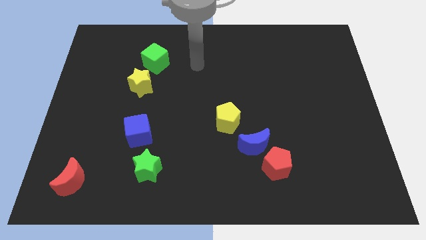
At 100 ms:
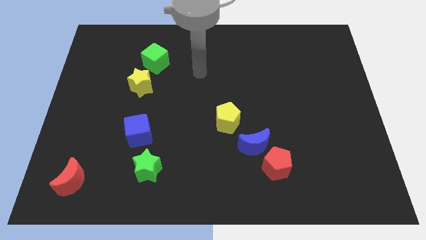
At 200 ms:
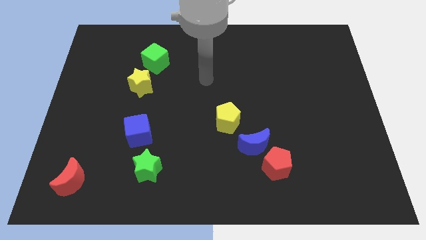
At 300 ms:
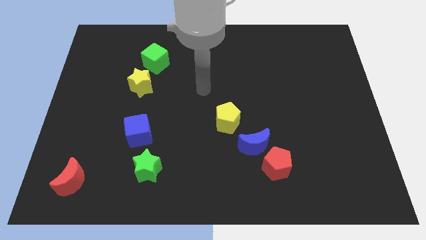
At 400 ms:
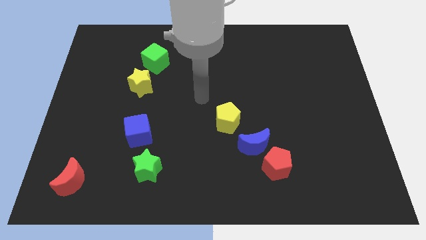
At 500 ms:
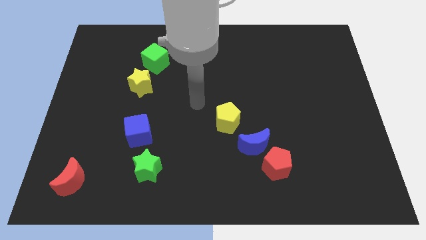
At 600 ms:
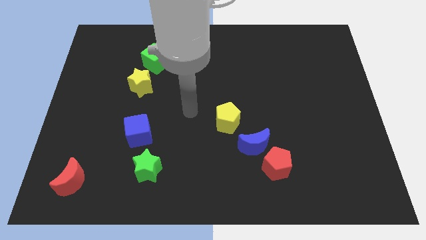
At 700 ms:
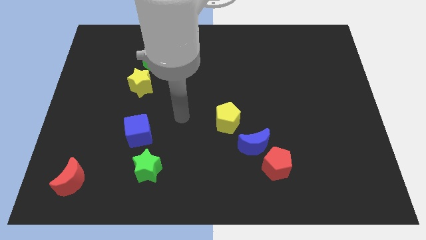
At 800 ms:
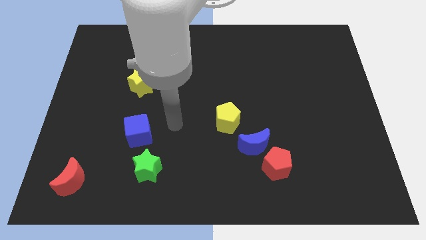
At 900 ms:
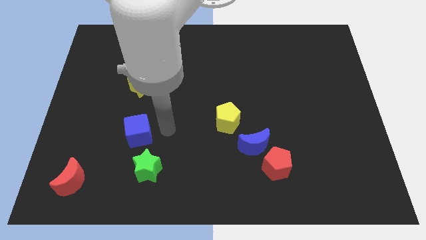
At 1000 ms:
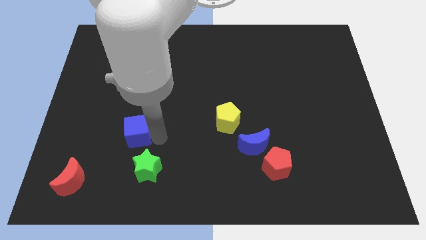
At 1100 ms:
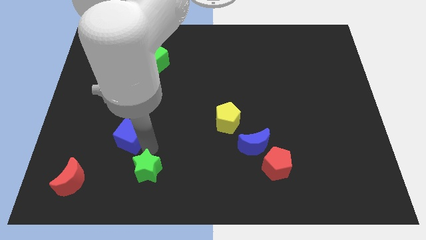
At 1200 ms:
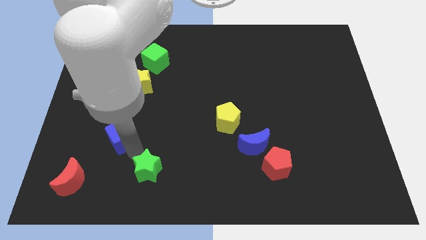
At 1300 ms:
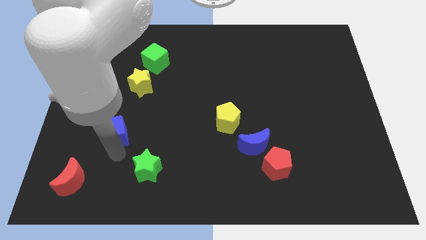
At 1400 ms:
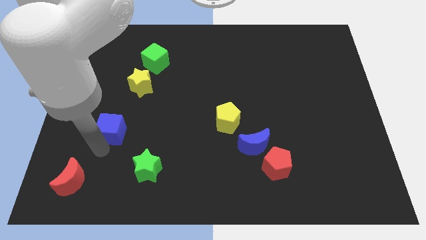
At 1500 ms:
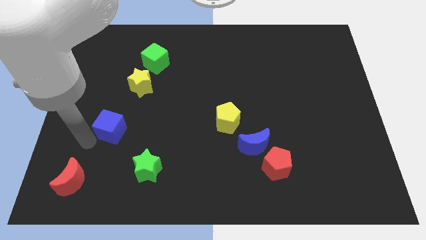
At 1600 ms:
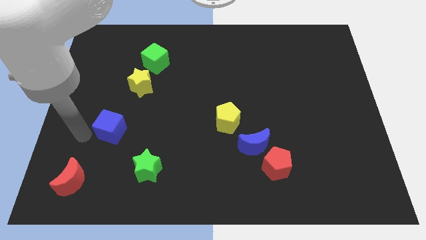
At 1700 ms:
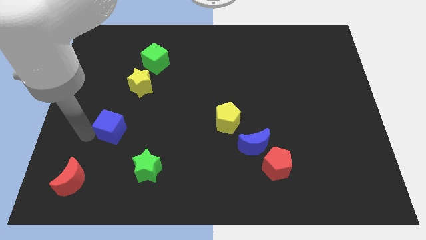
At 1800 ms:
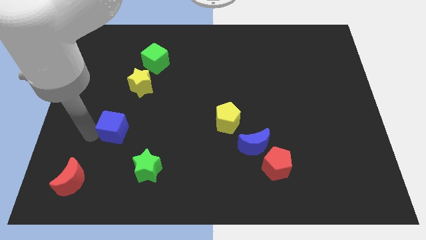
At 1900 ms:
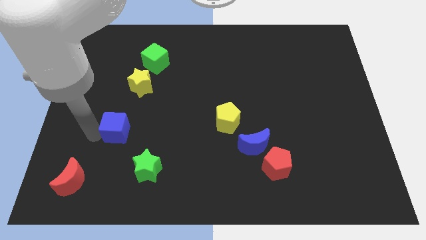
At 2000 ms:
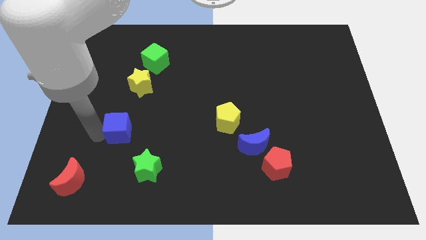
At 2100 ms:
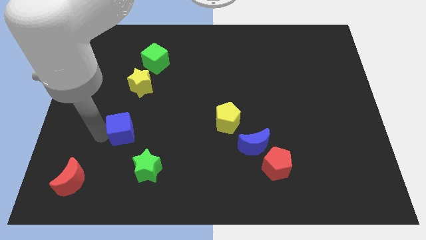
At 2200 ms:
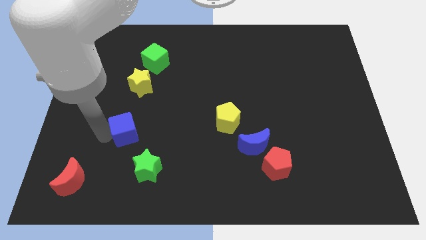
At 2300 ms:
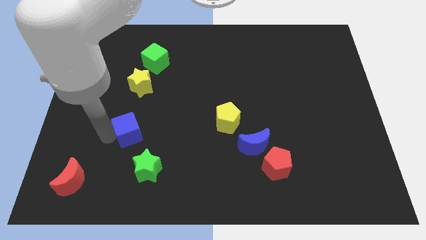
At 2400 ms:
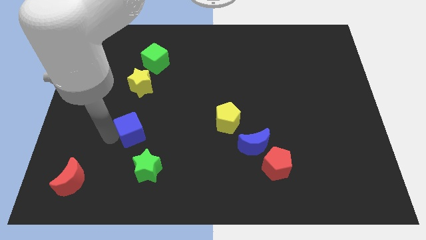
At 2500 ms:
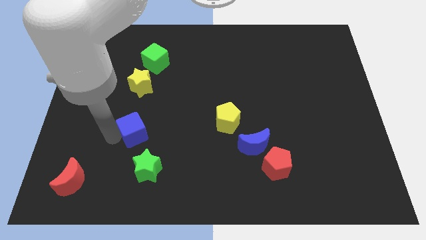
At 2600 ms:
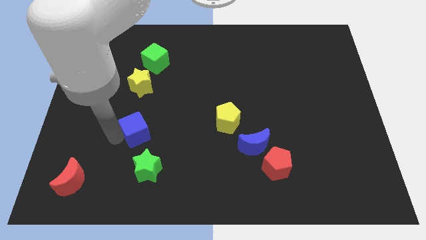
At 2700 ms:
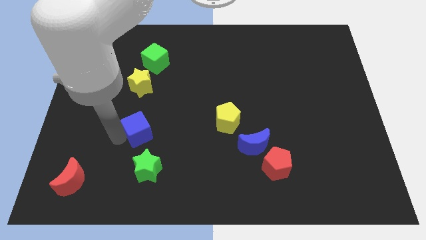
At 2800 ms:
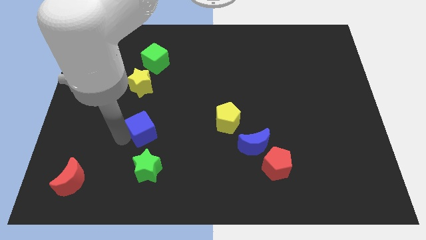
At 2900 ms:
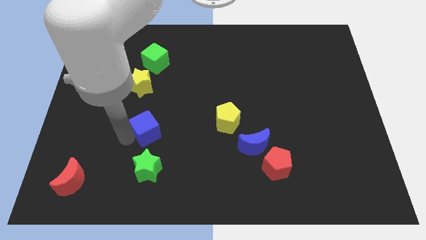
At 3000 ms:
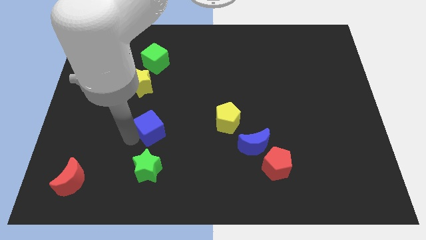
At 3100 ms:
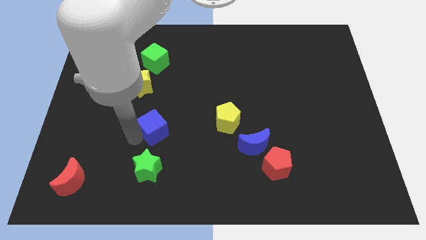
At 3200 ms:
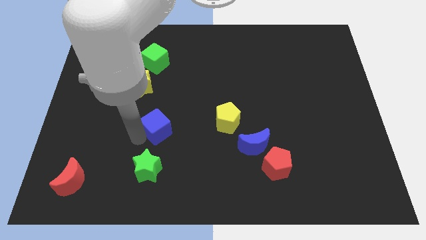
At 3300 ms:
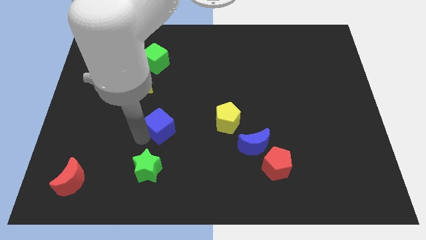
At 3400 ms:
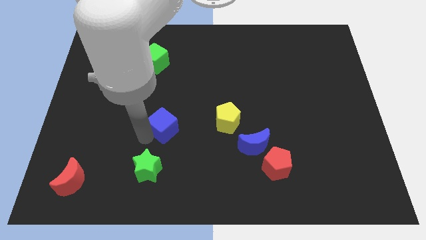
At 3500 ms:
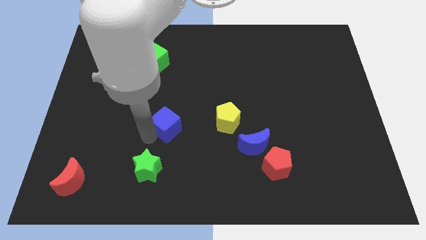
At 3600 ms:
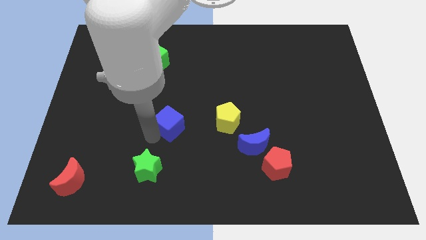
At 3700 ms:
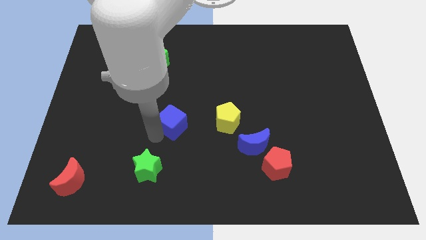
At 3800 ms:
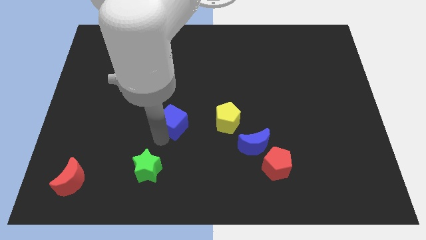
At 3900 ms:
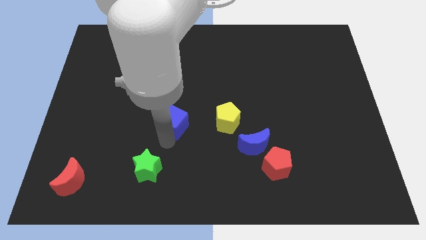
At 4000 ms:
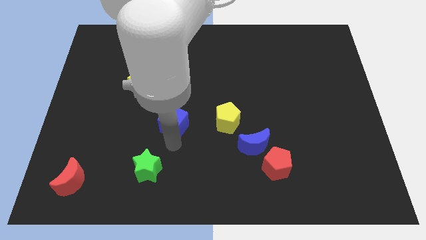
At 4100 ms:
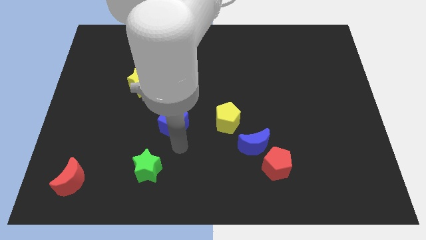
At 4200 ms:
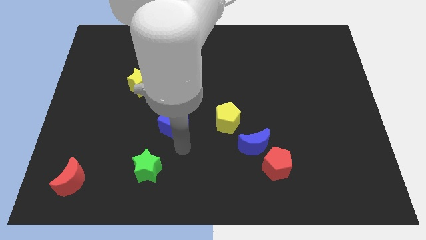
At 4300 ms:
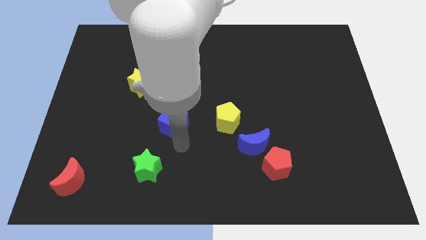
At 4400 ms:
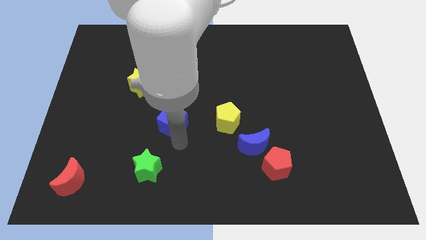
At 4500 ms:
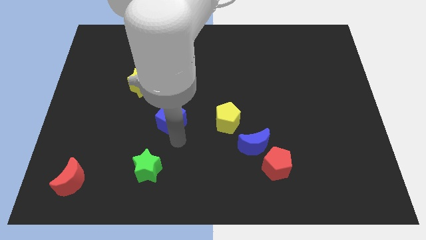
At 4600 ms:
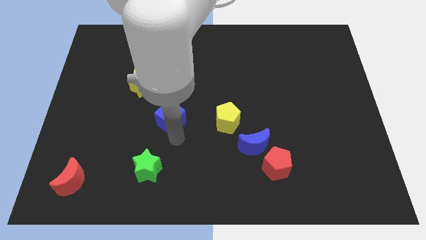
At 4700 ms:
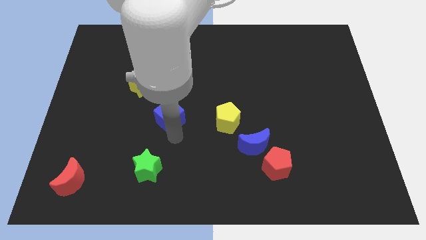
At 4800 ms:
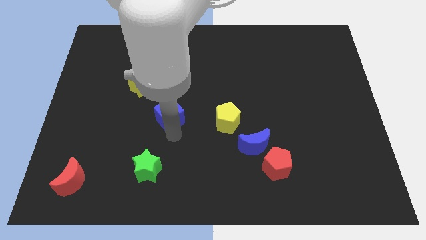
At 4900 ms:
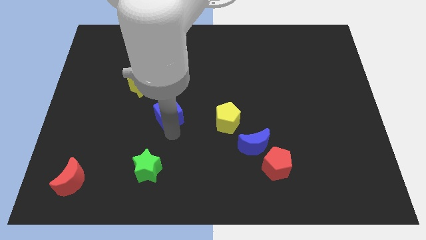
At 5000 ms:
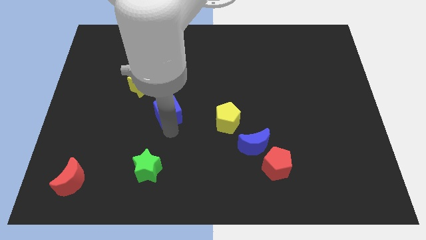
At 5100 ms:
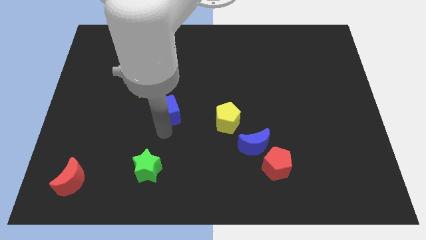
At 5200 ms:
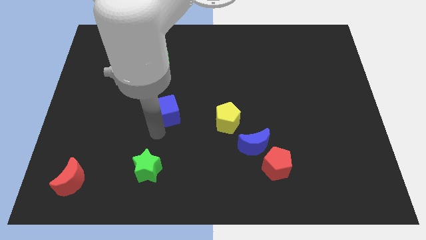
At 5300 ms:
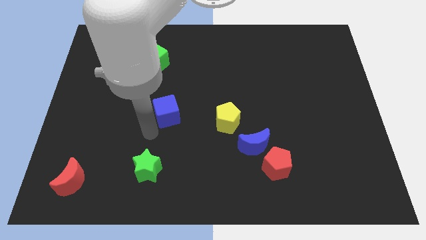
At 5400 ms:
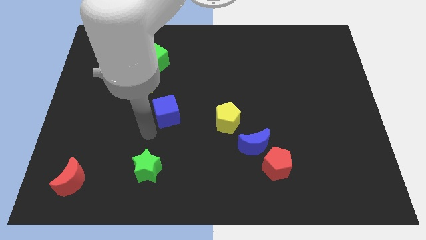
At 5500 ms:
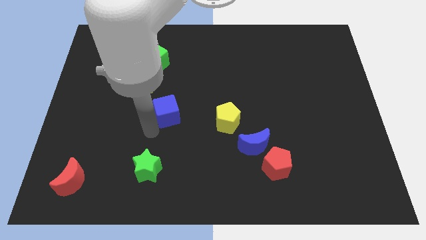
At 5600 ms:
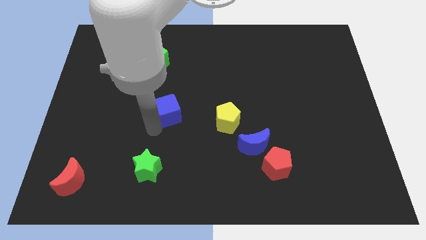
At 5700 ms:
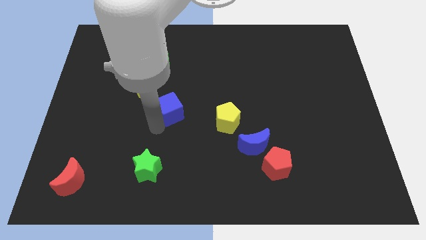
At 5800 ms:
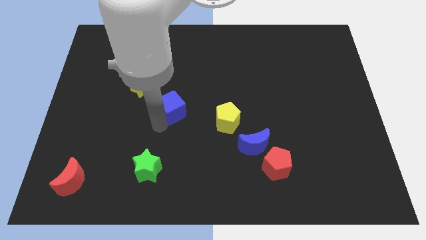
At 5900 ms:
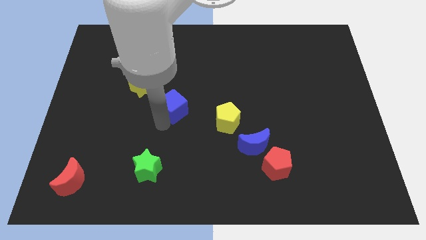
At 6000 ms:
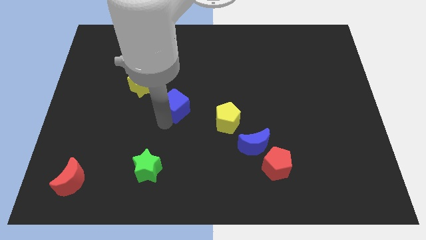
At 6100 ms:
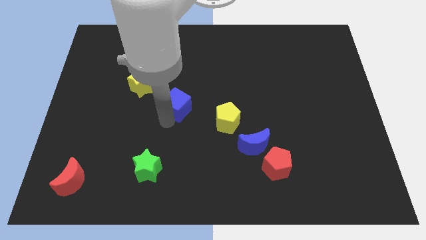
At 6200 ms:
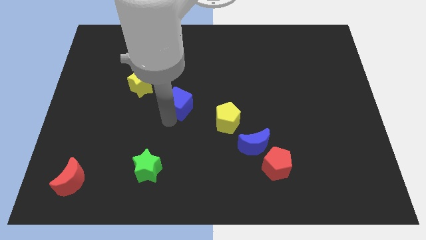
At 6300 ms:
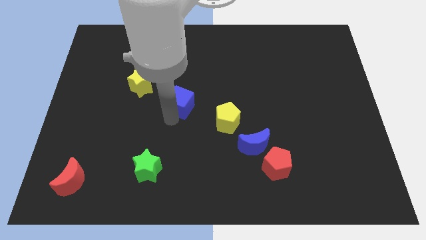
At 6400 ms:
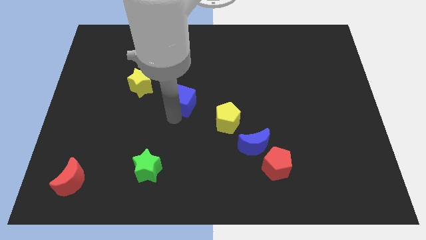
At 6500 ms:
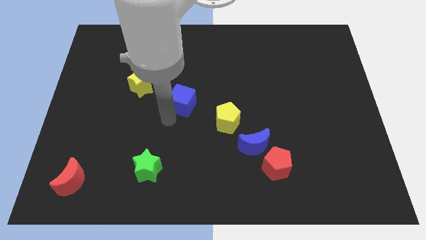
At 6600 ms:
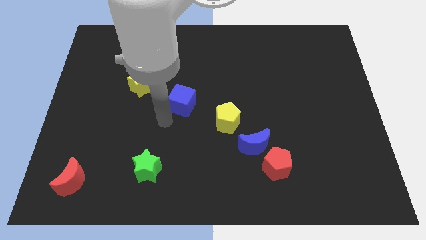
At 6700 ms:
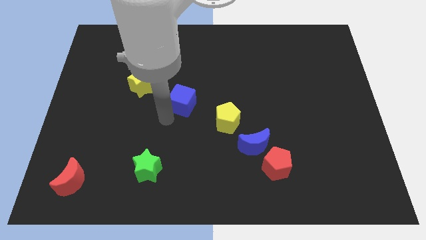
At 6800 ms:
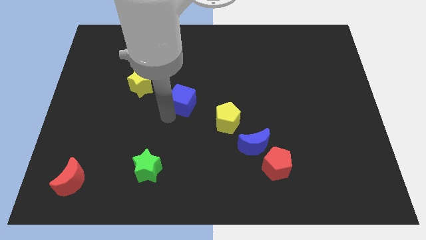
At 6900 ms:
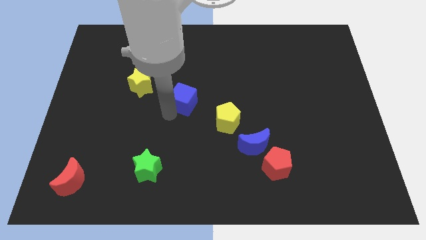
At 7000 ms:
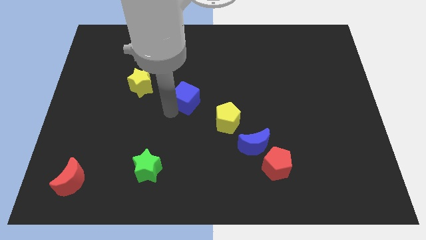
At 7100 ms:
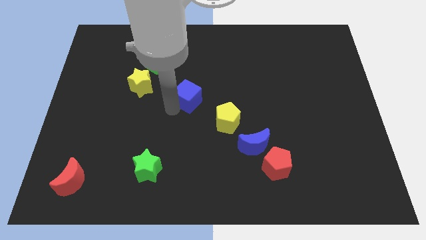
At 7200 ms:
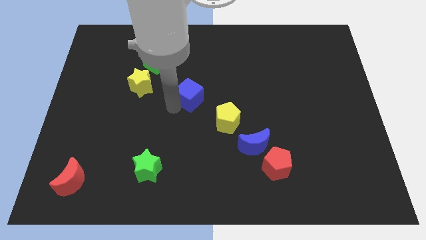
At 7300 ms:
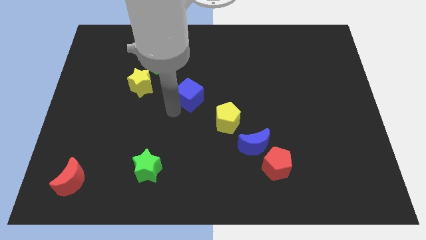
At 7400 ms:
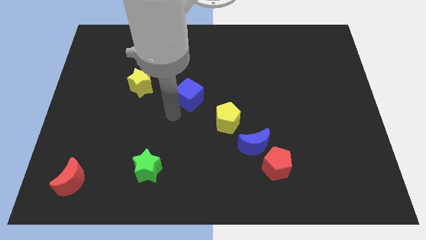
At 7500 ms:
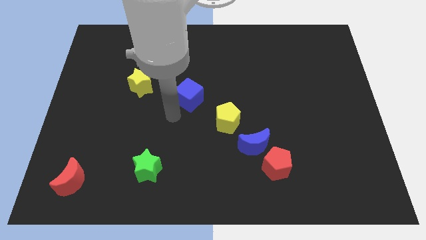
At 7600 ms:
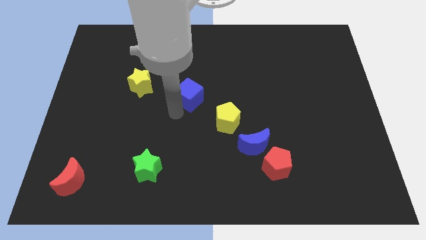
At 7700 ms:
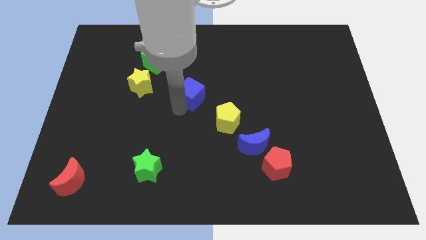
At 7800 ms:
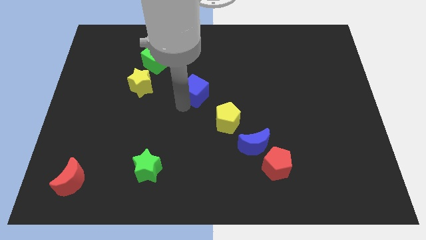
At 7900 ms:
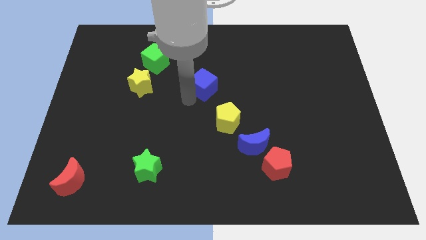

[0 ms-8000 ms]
move the blue cube up and then right

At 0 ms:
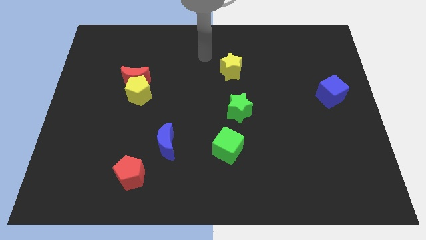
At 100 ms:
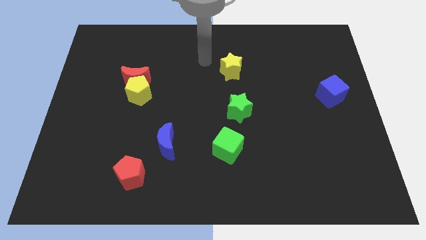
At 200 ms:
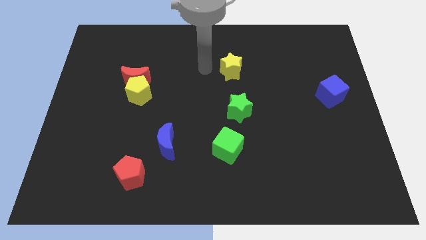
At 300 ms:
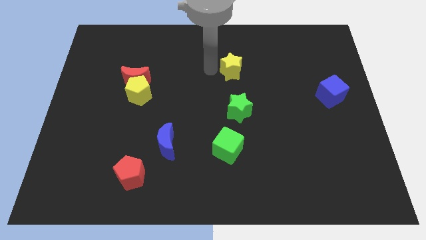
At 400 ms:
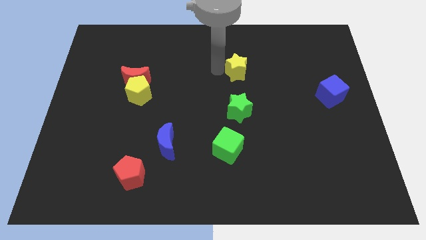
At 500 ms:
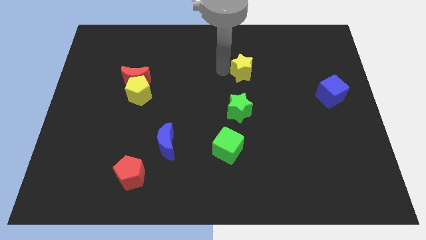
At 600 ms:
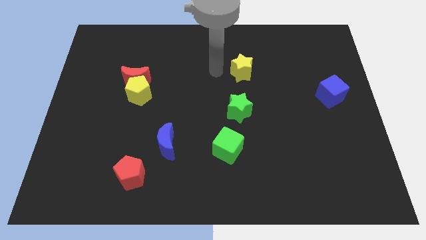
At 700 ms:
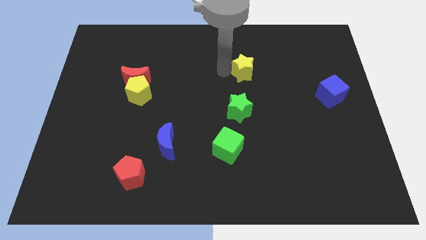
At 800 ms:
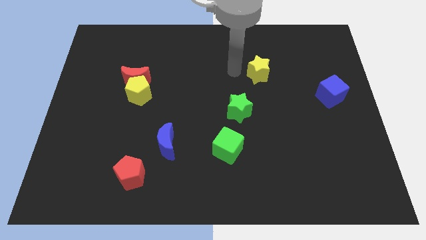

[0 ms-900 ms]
slightly move the yellow star right
